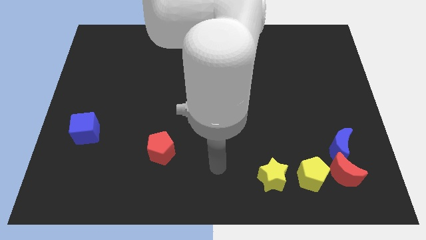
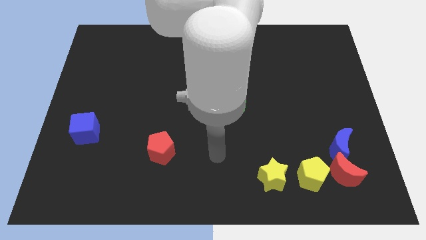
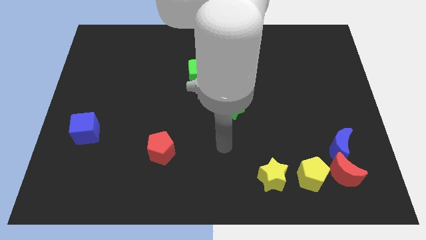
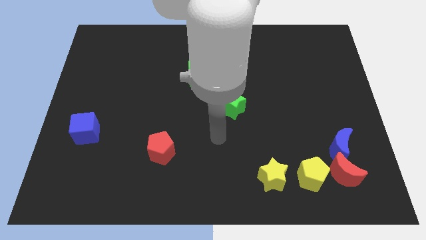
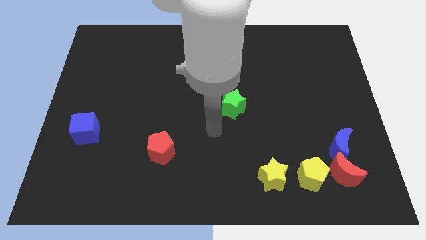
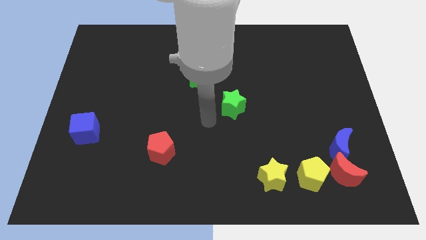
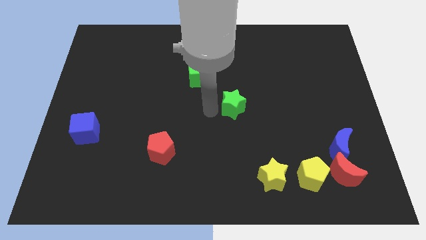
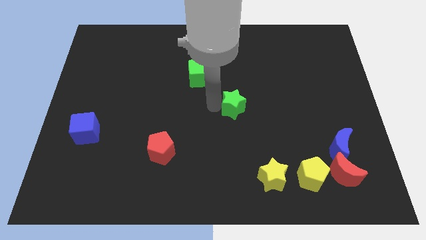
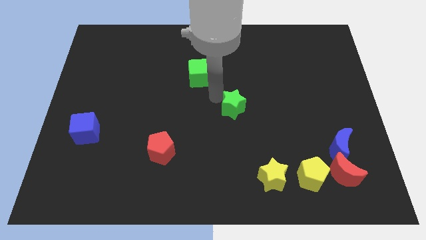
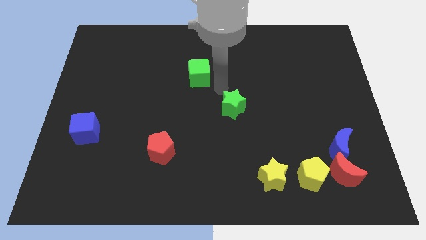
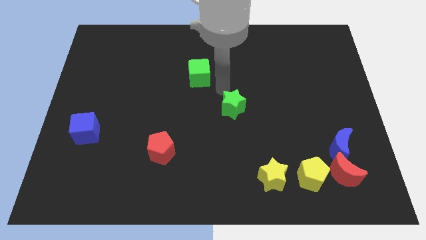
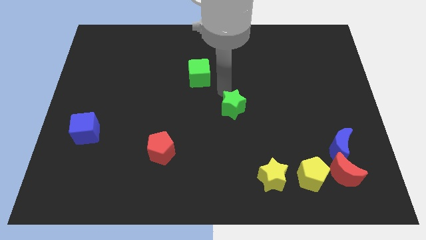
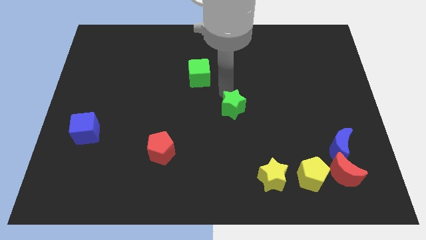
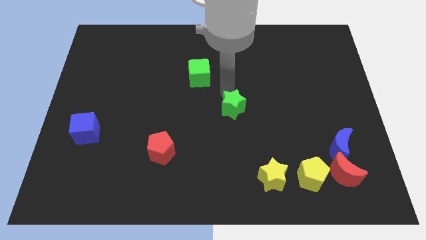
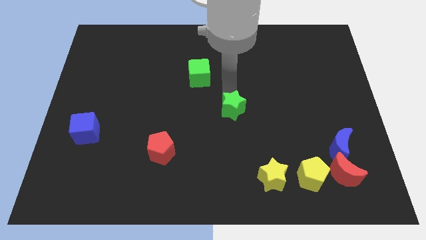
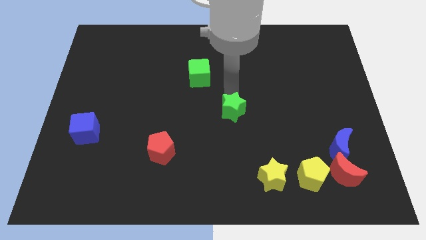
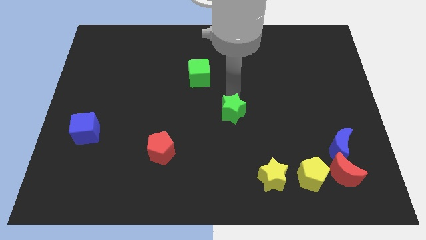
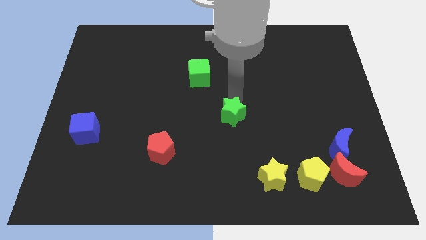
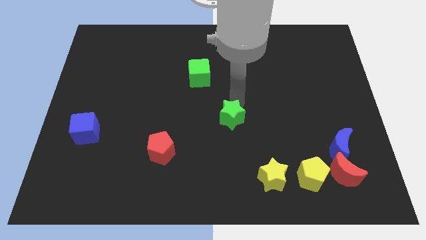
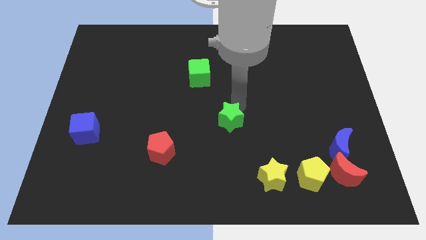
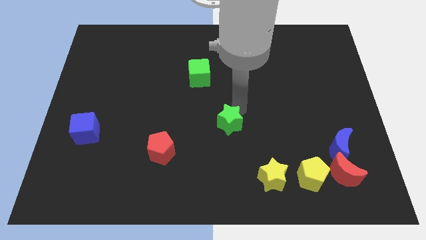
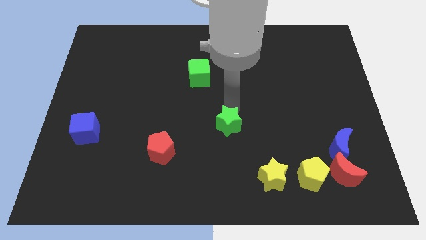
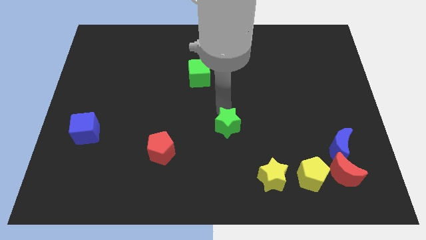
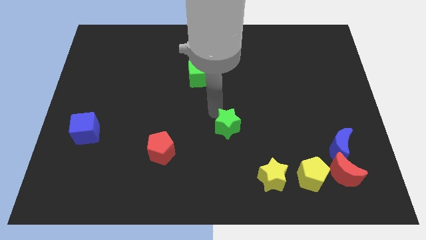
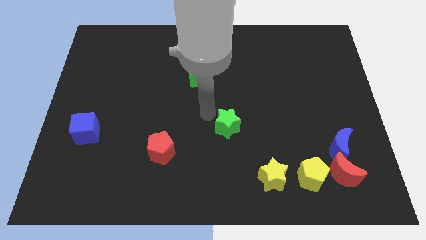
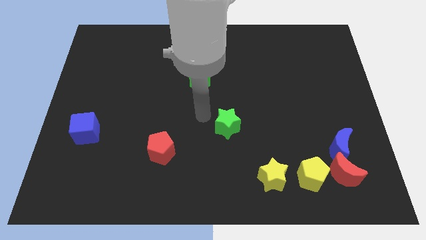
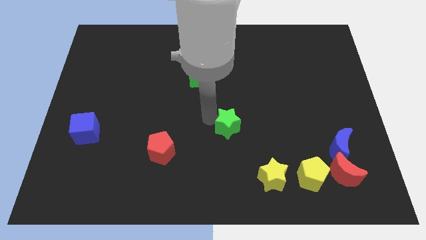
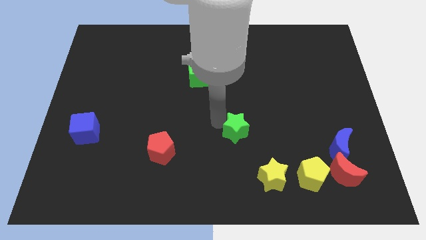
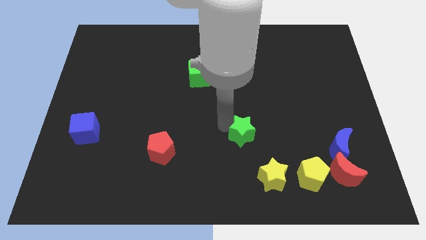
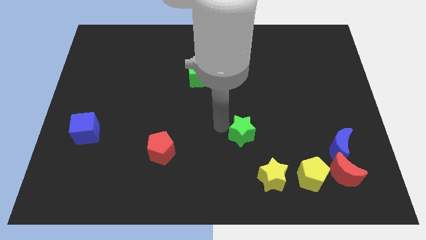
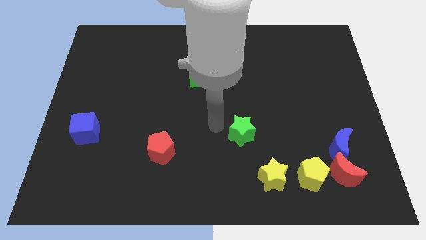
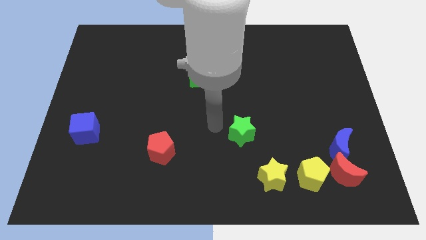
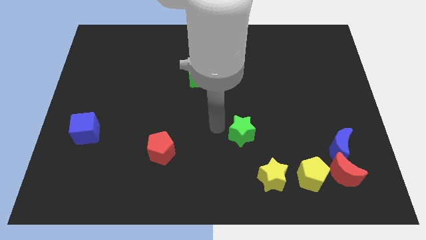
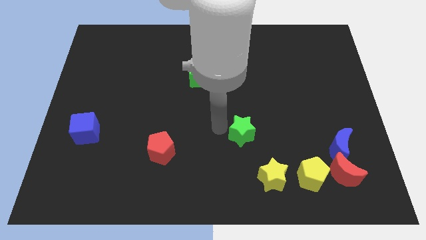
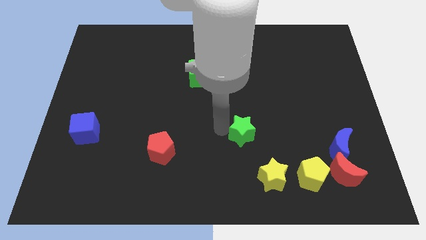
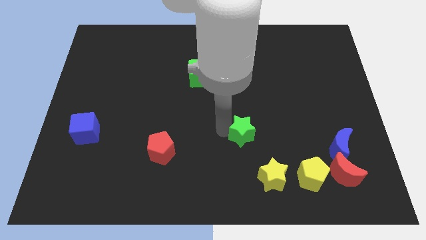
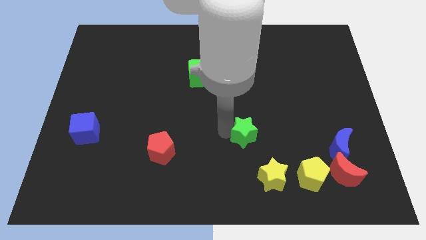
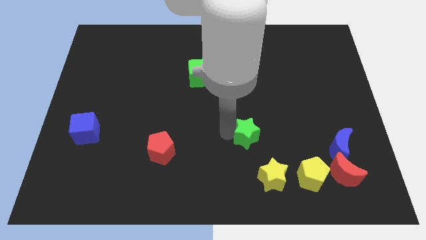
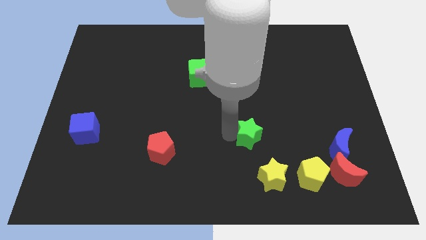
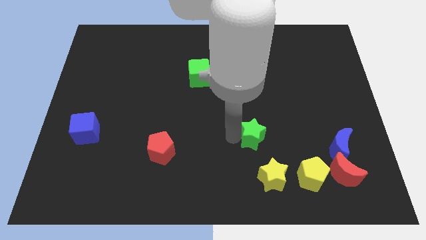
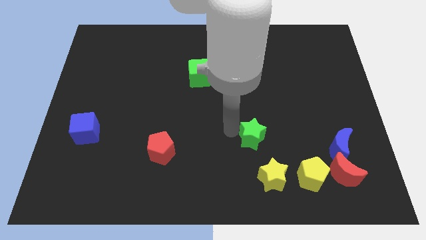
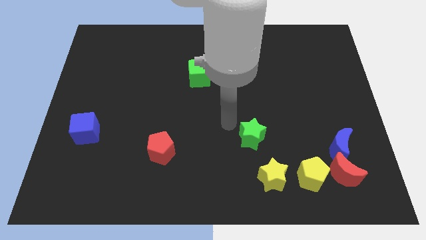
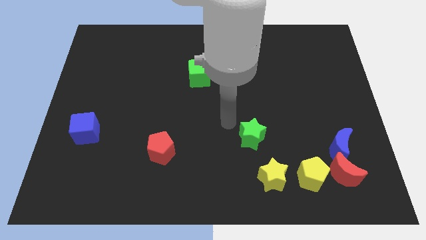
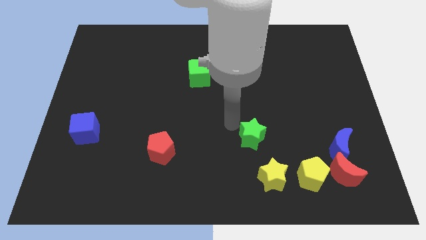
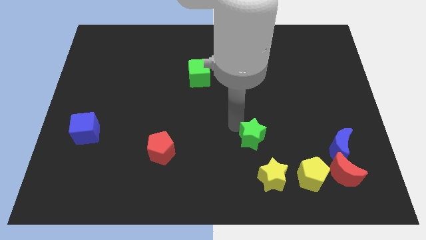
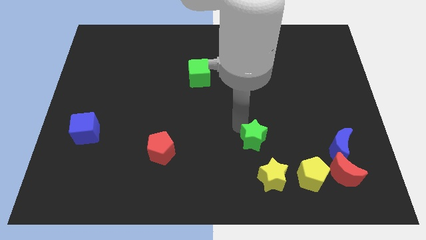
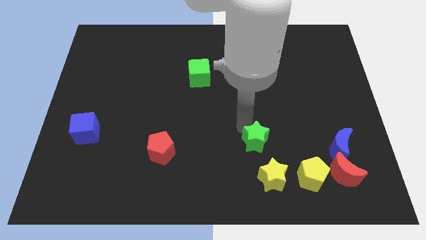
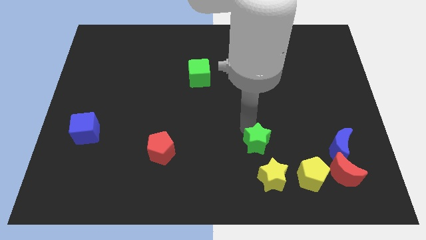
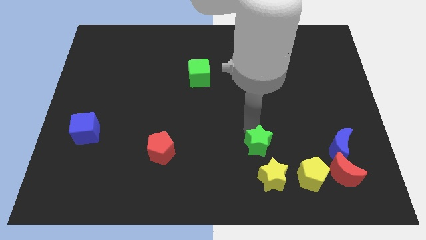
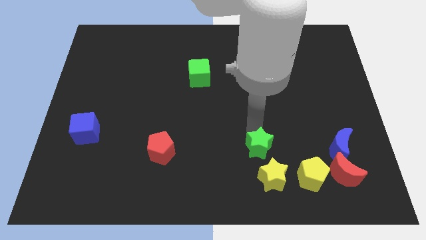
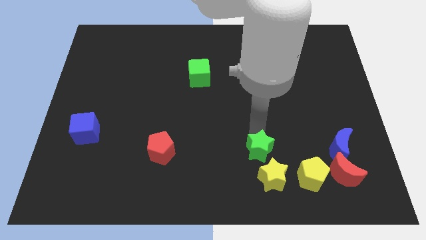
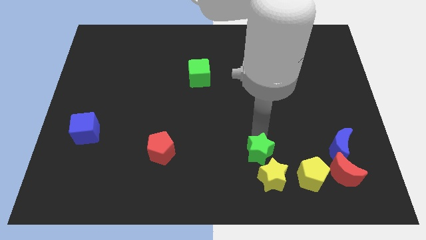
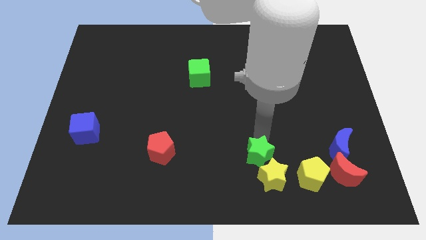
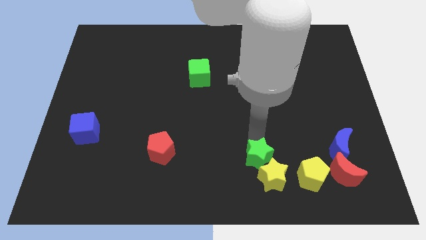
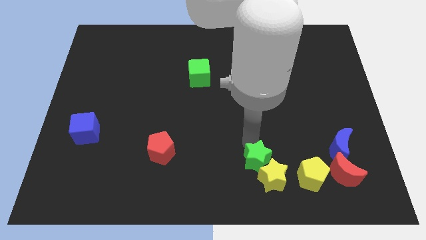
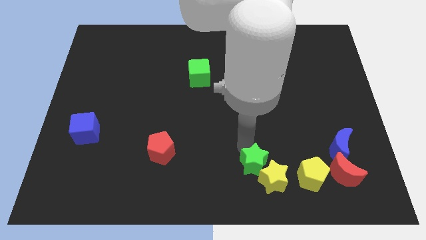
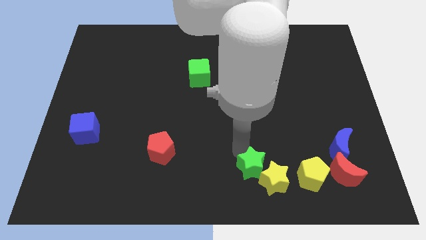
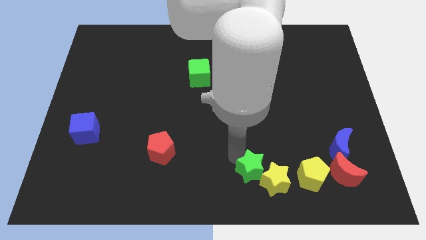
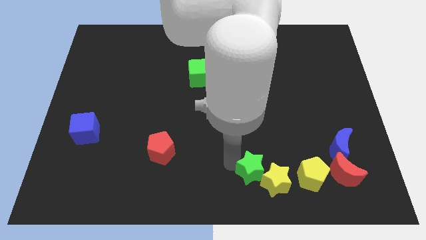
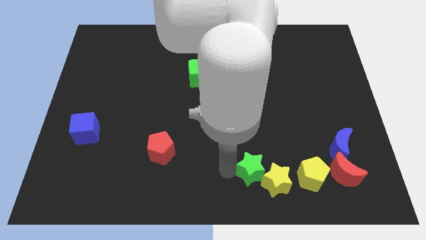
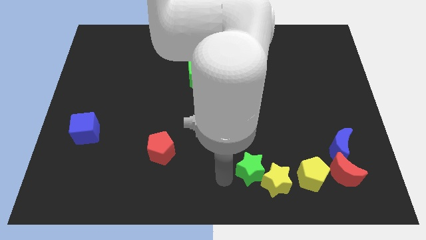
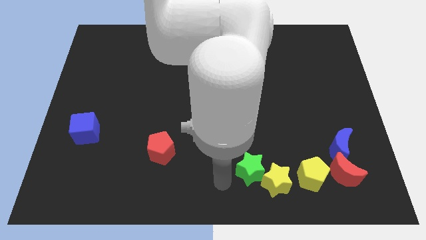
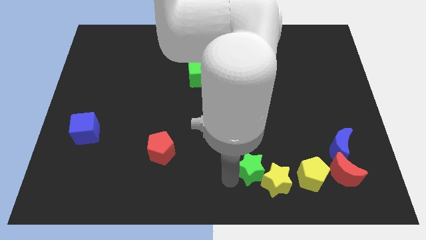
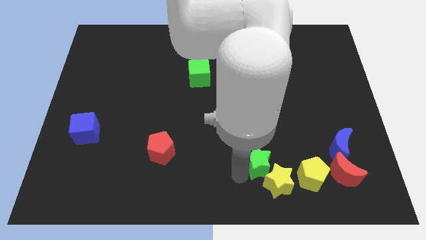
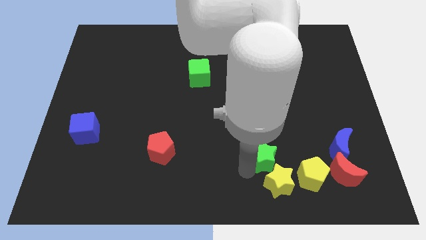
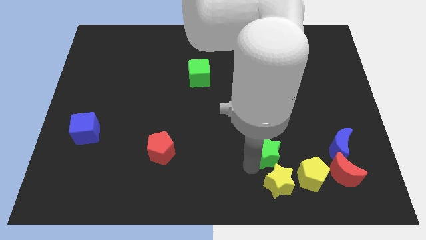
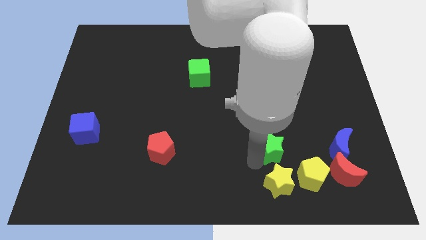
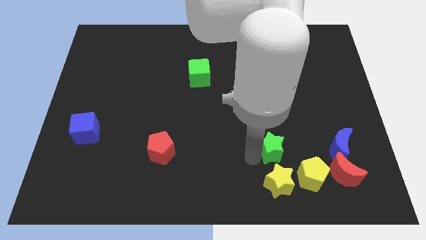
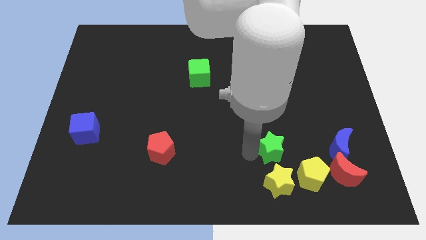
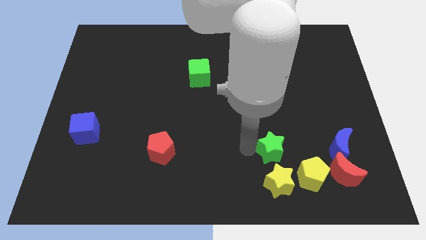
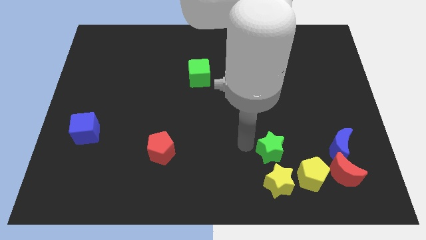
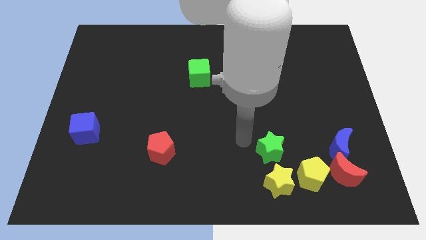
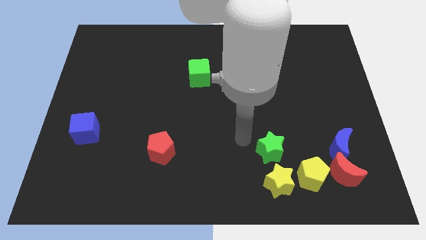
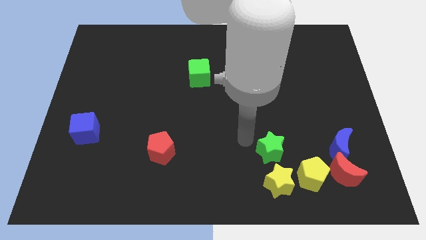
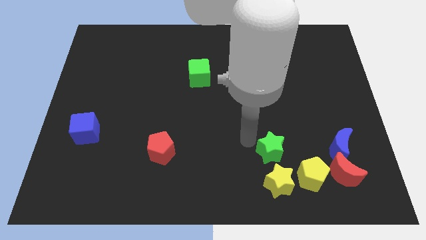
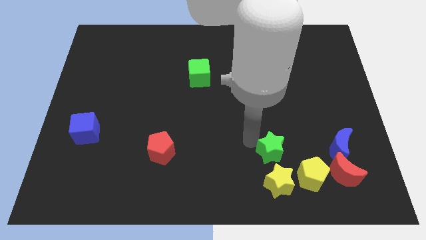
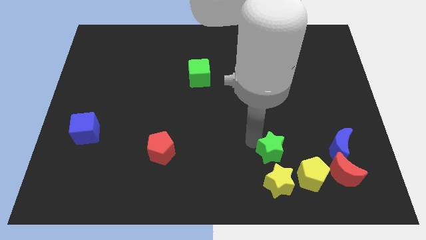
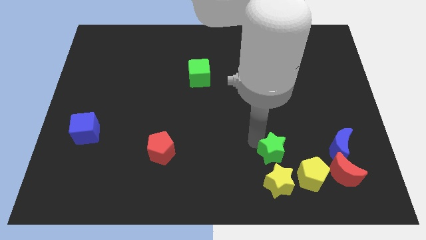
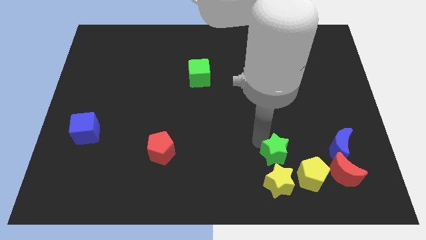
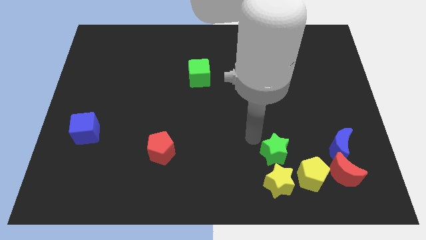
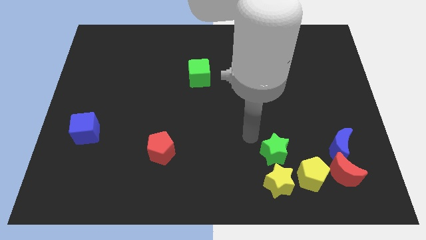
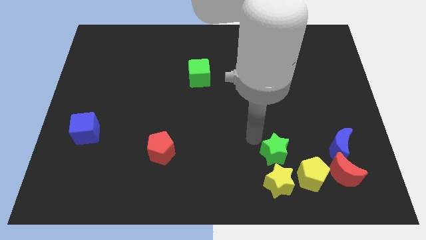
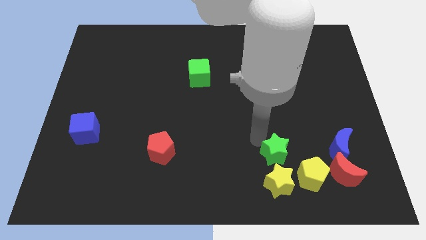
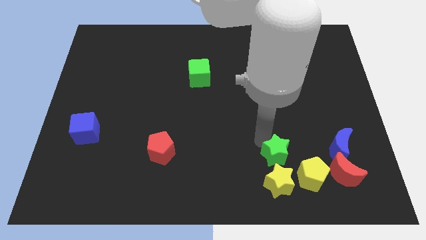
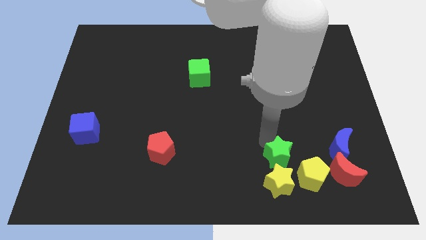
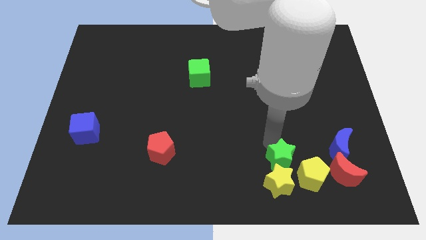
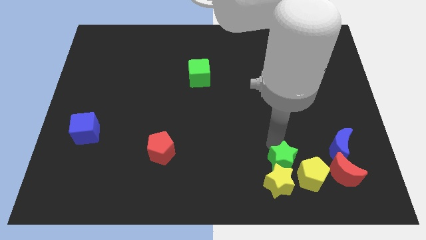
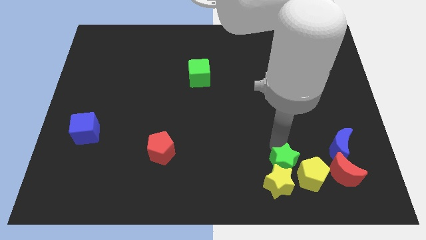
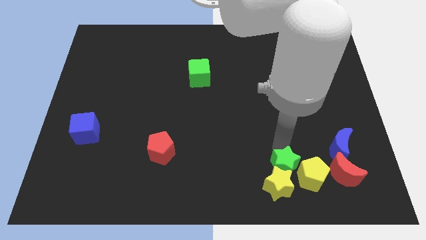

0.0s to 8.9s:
put the green star towards the yellow pentagon
